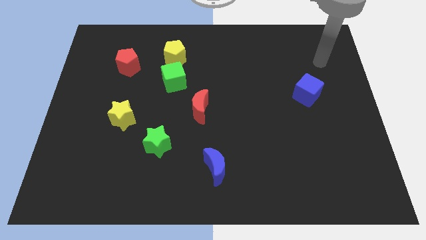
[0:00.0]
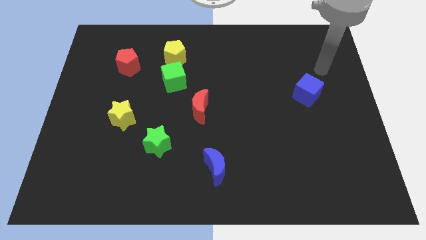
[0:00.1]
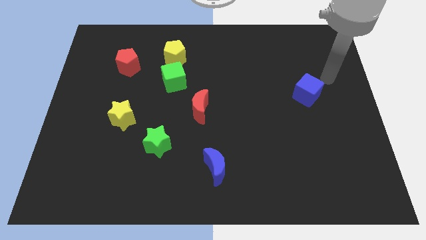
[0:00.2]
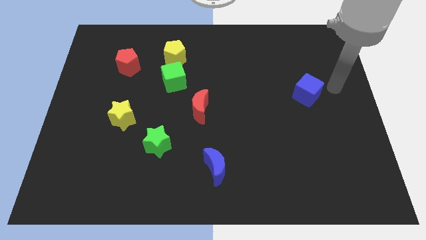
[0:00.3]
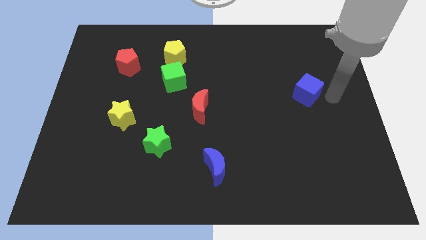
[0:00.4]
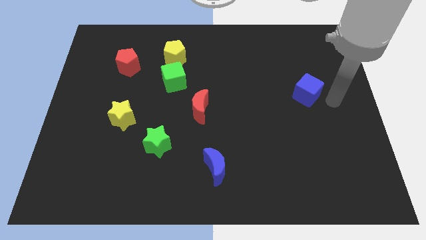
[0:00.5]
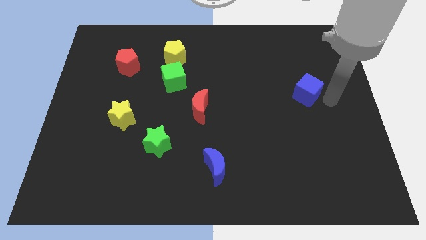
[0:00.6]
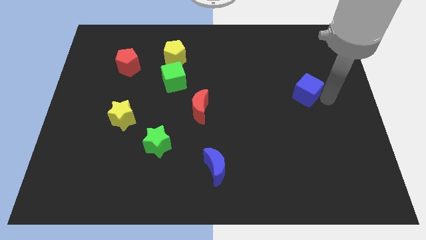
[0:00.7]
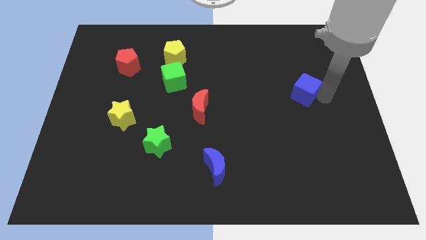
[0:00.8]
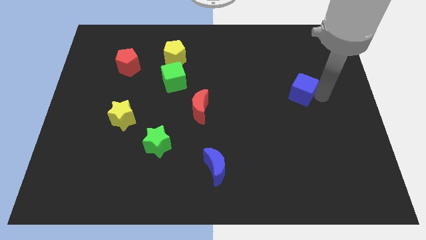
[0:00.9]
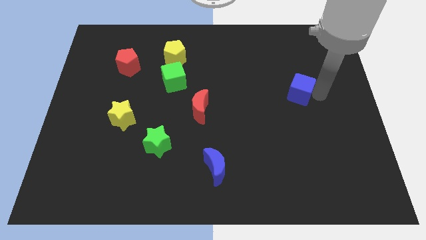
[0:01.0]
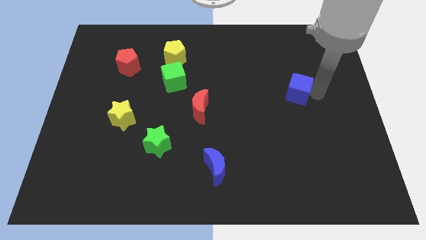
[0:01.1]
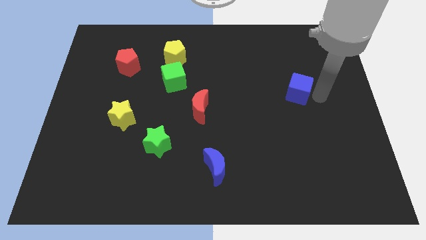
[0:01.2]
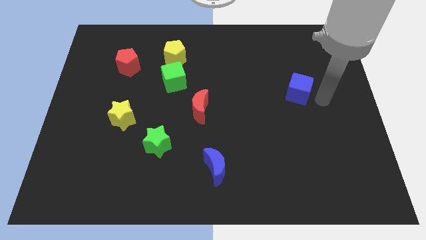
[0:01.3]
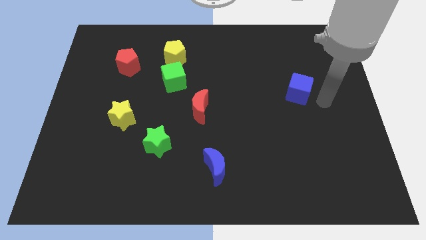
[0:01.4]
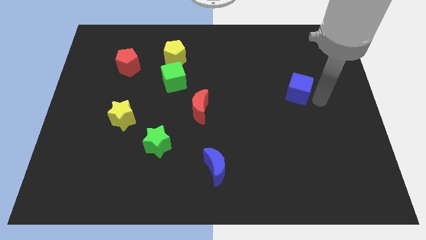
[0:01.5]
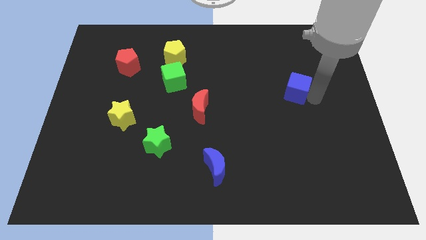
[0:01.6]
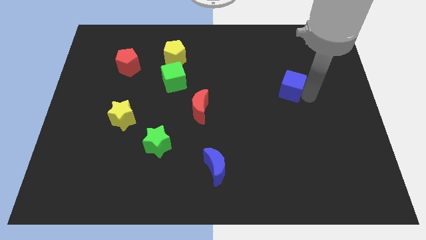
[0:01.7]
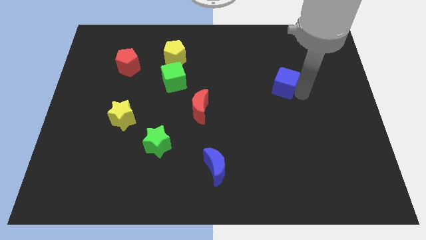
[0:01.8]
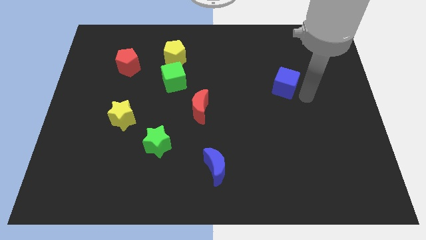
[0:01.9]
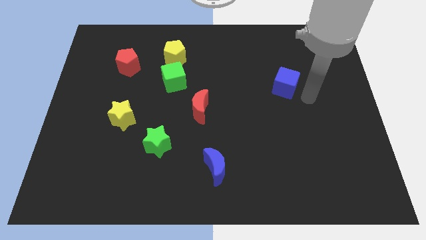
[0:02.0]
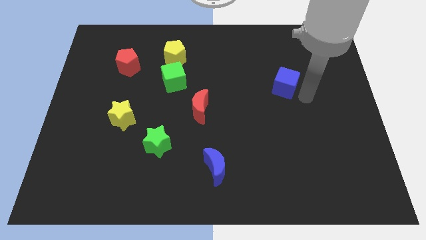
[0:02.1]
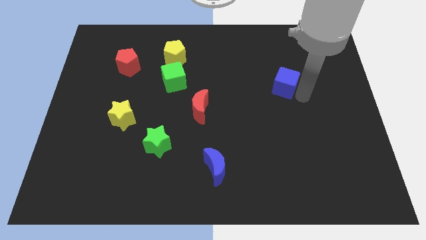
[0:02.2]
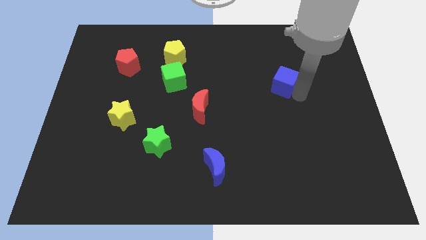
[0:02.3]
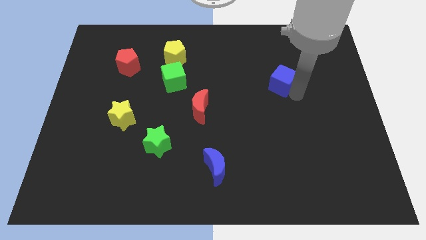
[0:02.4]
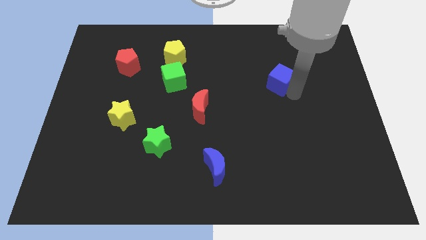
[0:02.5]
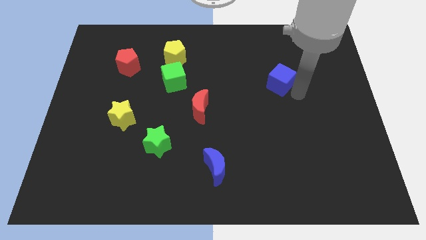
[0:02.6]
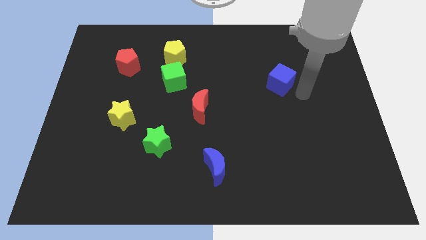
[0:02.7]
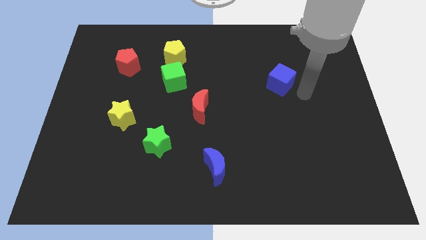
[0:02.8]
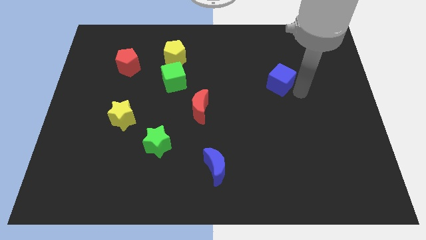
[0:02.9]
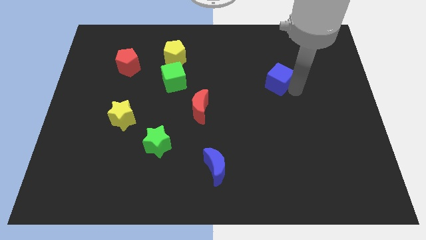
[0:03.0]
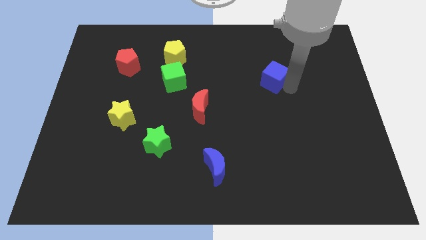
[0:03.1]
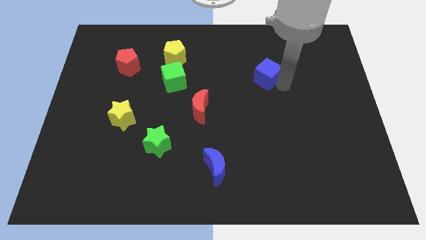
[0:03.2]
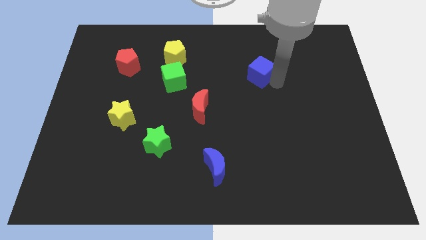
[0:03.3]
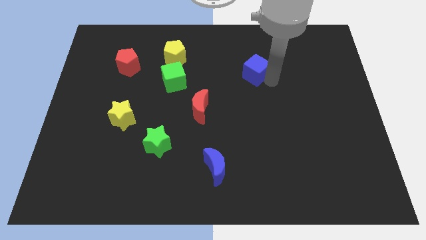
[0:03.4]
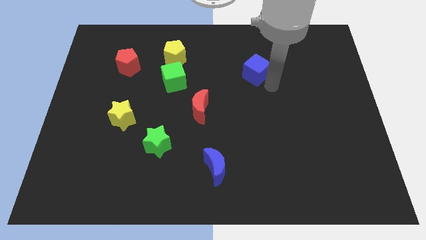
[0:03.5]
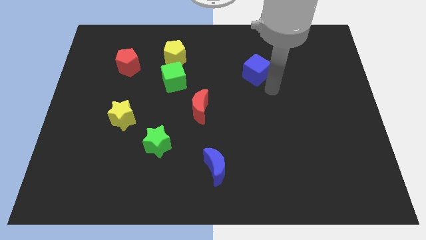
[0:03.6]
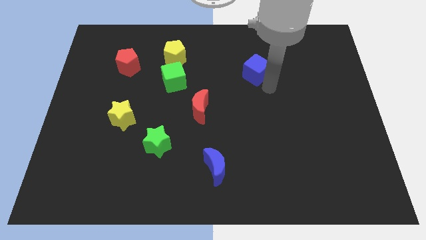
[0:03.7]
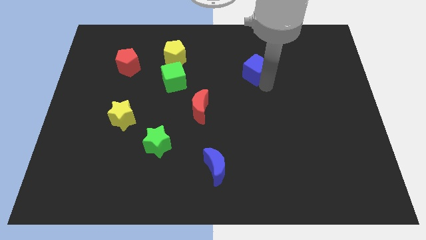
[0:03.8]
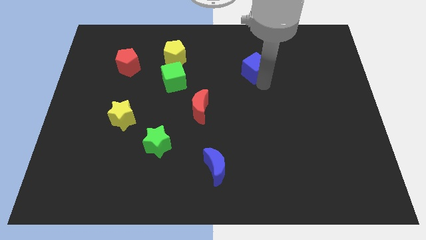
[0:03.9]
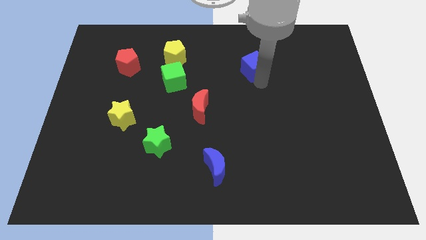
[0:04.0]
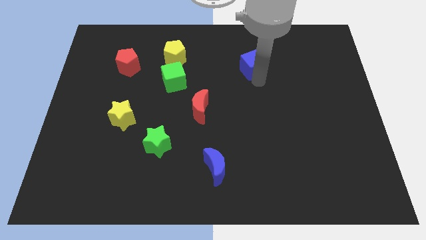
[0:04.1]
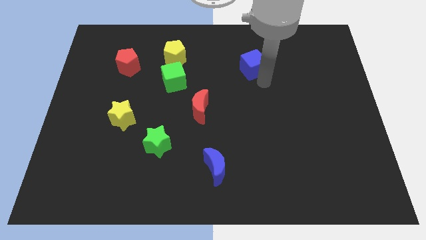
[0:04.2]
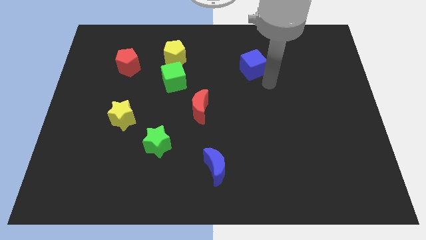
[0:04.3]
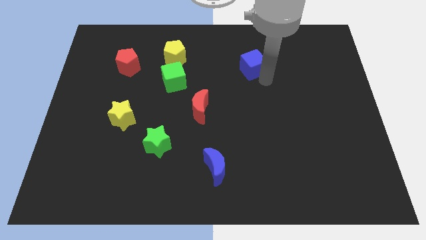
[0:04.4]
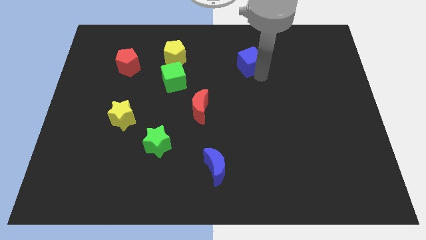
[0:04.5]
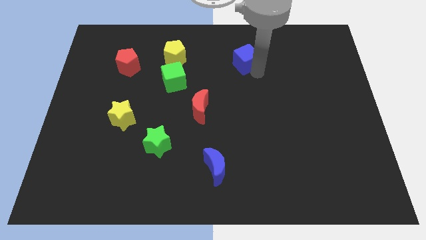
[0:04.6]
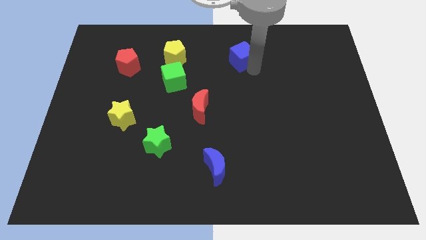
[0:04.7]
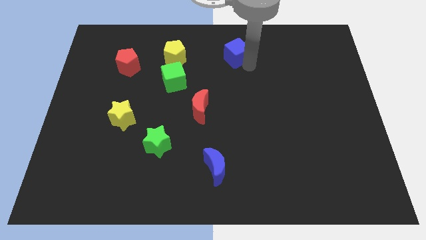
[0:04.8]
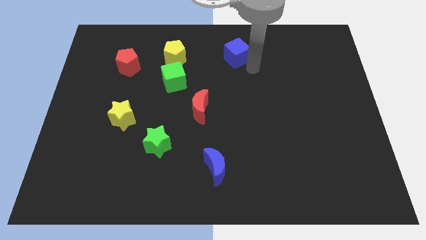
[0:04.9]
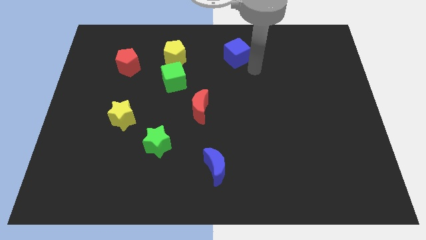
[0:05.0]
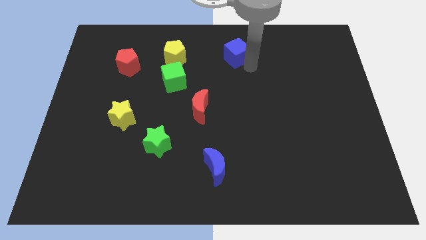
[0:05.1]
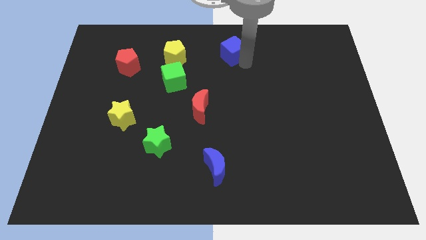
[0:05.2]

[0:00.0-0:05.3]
push the blue cube to the top side

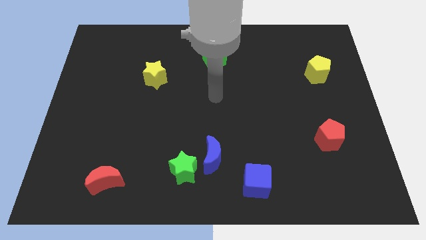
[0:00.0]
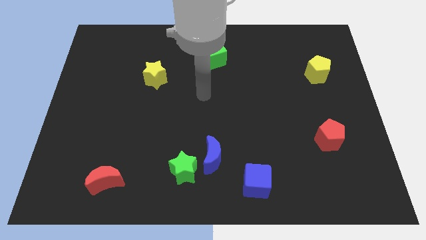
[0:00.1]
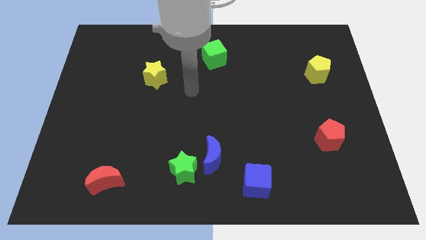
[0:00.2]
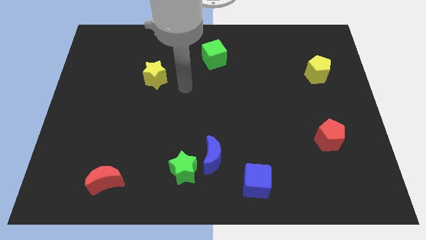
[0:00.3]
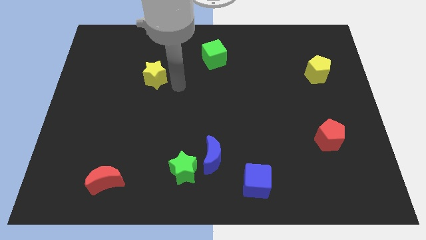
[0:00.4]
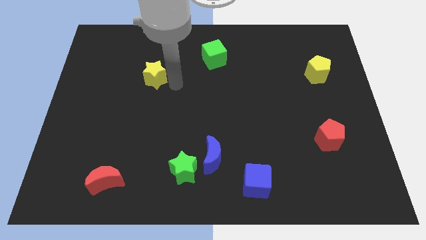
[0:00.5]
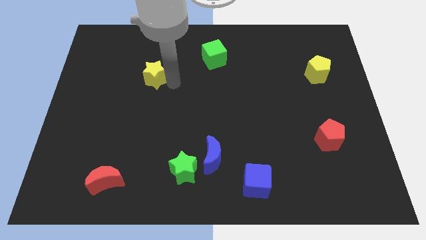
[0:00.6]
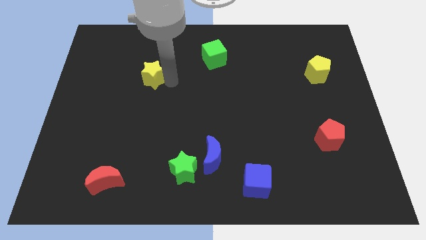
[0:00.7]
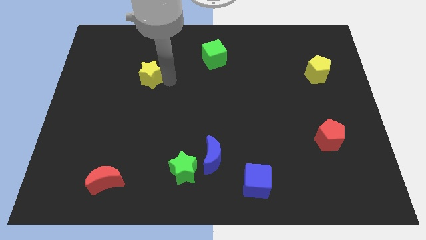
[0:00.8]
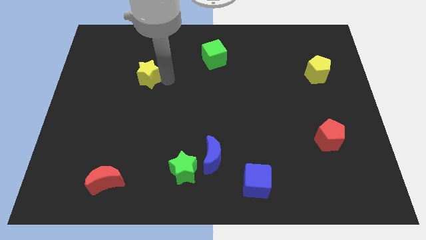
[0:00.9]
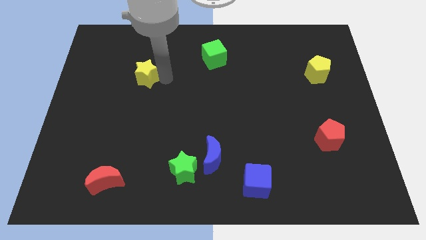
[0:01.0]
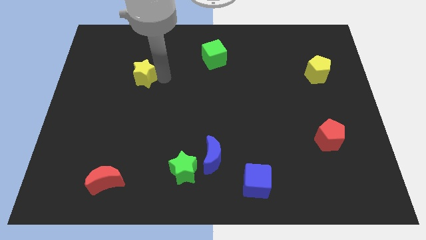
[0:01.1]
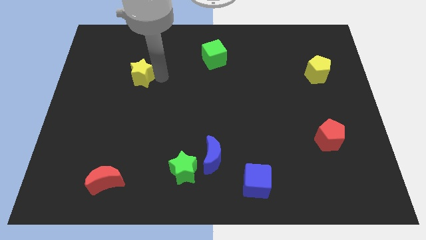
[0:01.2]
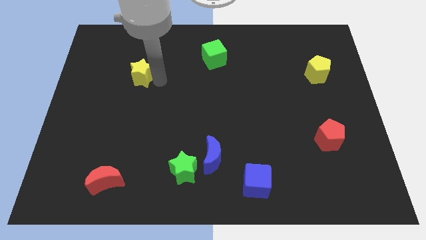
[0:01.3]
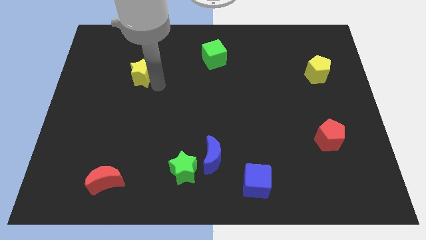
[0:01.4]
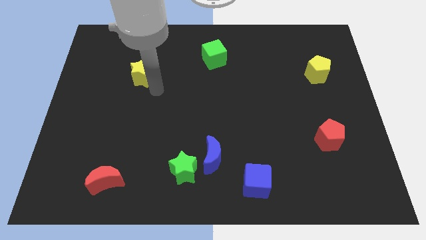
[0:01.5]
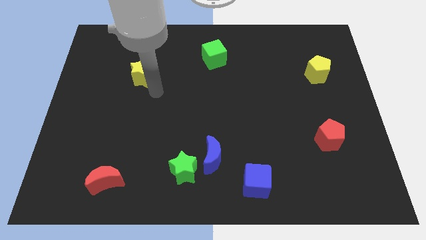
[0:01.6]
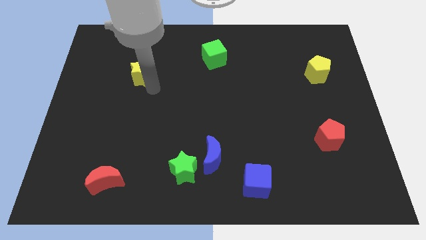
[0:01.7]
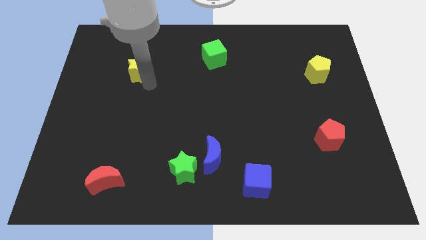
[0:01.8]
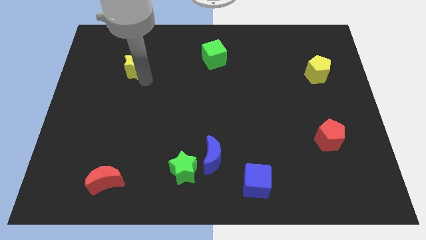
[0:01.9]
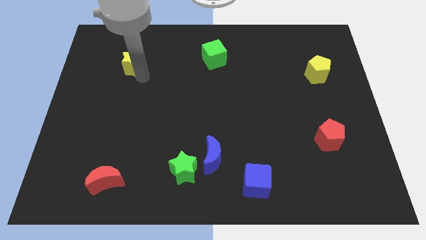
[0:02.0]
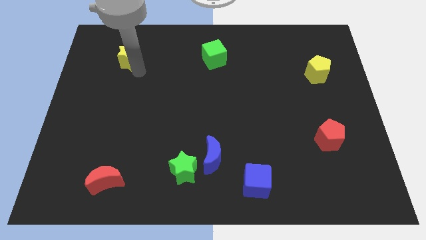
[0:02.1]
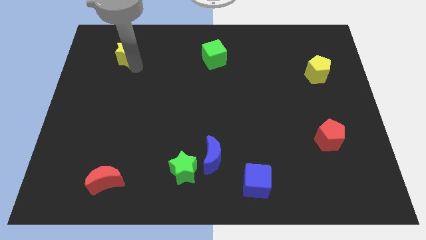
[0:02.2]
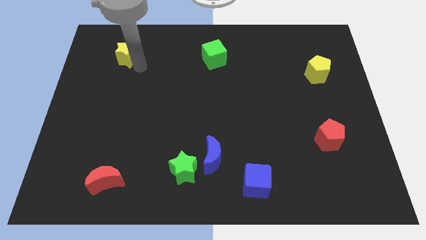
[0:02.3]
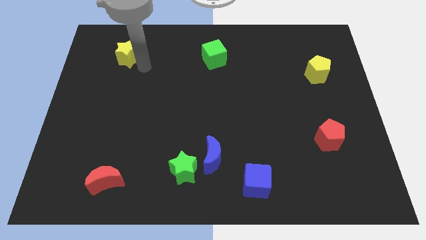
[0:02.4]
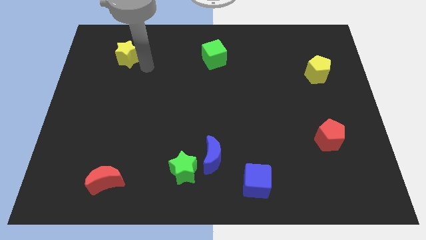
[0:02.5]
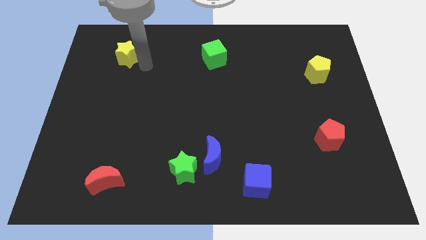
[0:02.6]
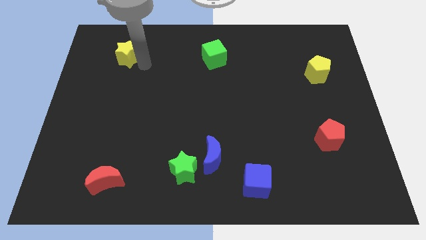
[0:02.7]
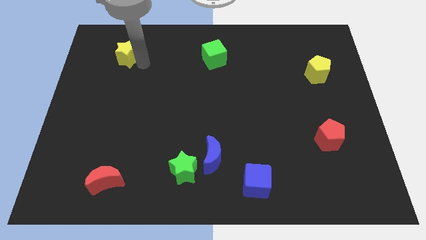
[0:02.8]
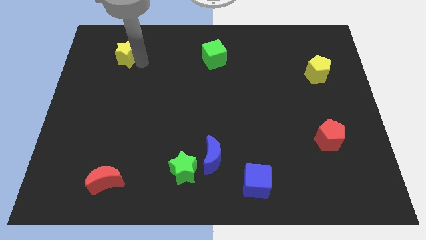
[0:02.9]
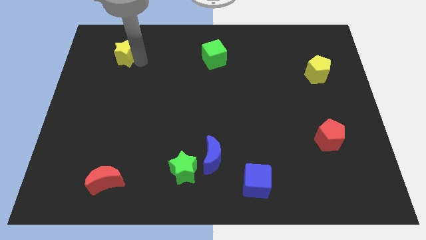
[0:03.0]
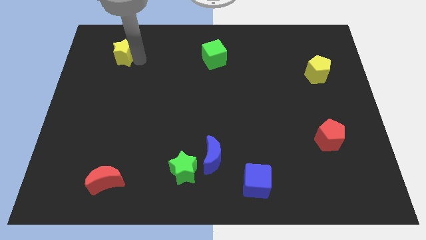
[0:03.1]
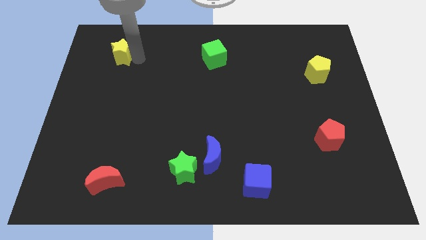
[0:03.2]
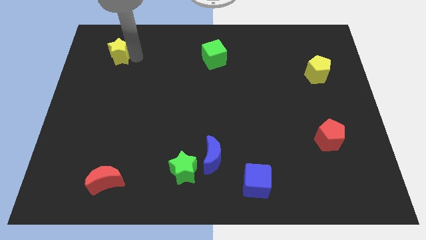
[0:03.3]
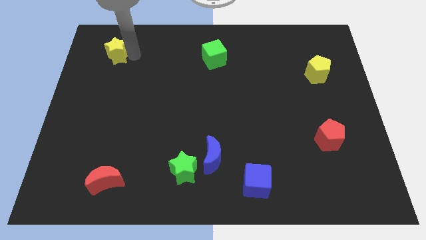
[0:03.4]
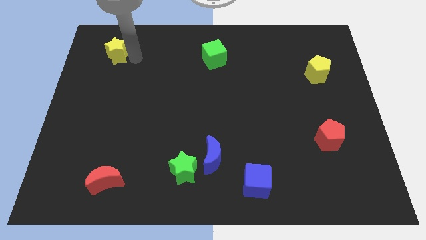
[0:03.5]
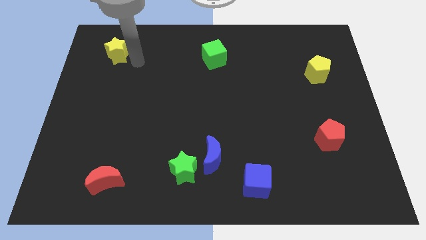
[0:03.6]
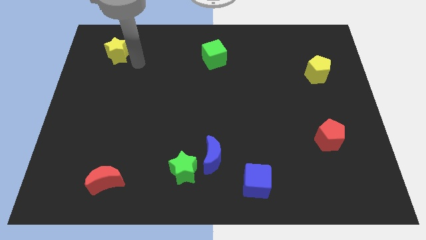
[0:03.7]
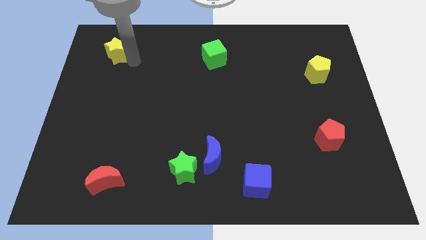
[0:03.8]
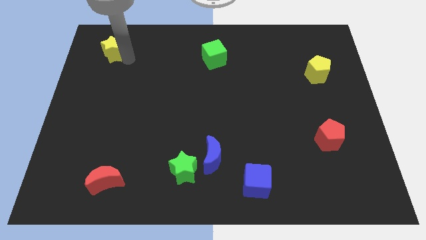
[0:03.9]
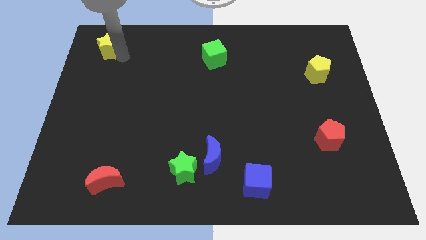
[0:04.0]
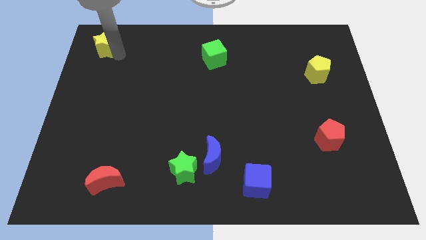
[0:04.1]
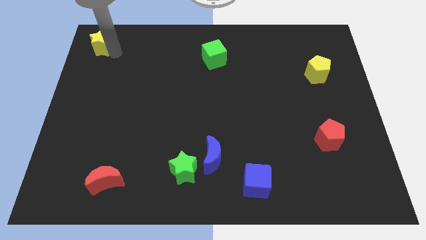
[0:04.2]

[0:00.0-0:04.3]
put the yellow star to the top left corner
